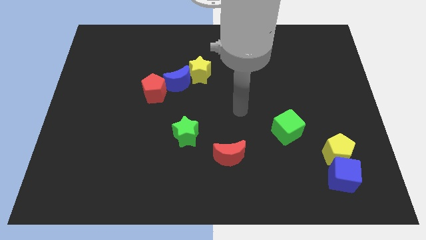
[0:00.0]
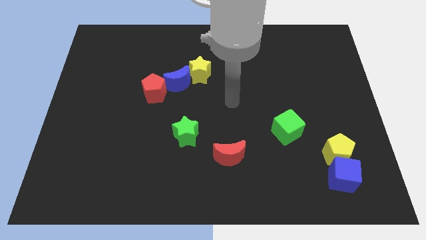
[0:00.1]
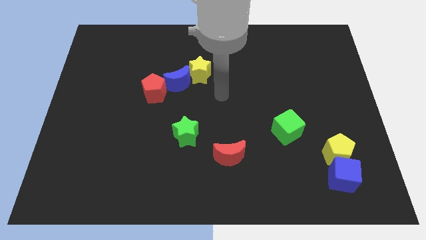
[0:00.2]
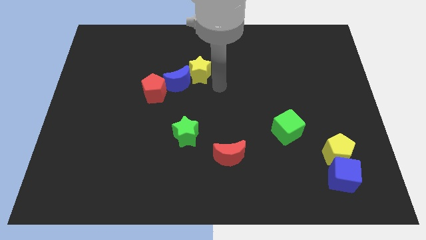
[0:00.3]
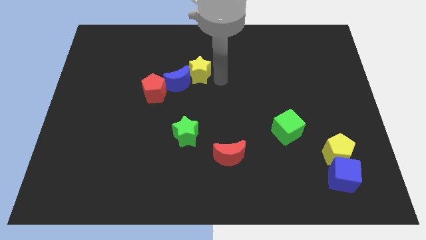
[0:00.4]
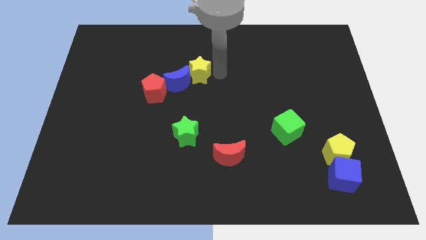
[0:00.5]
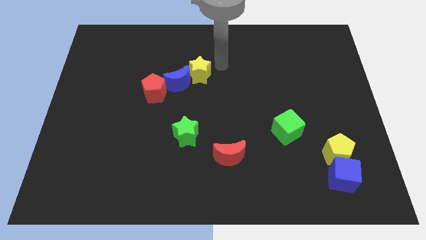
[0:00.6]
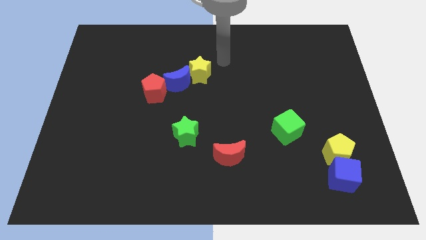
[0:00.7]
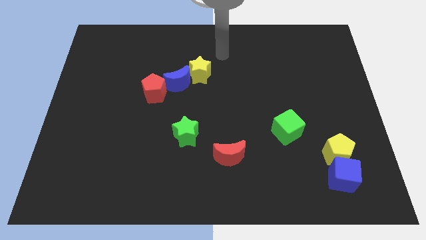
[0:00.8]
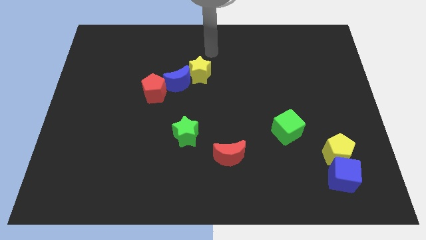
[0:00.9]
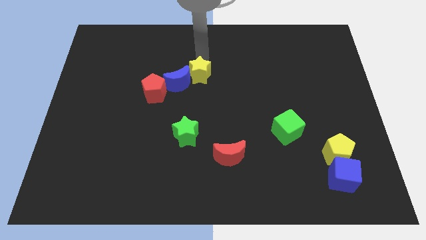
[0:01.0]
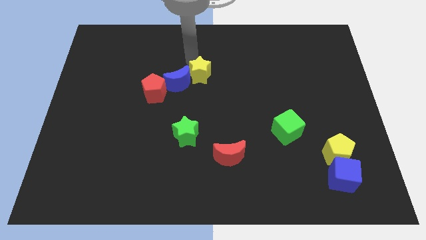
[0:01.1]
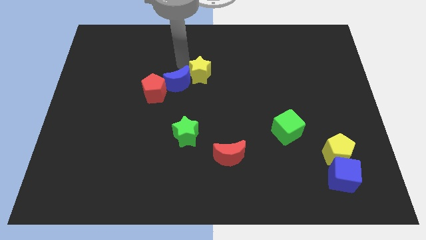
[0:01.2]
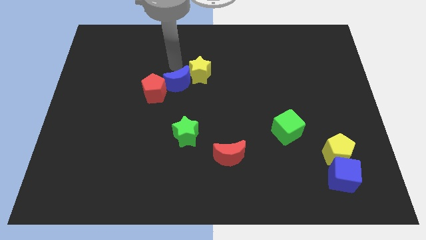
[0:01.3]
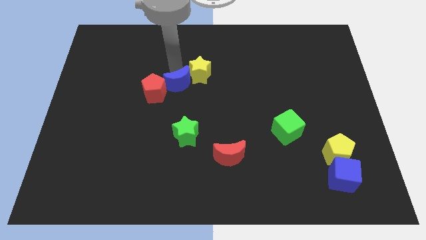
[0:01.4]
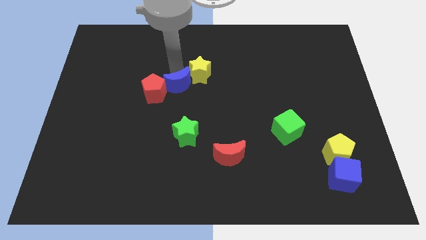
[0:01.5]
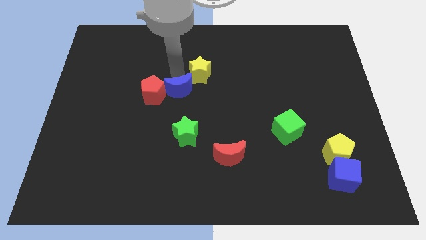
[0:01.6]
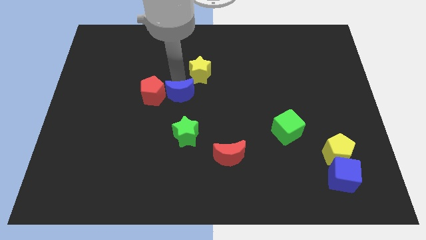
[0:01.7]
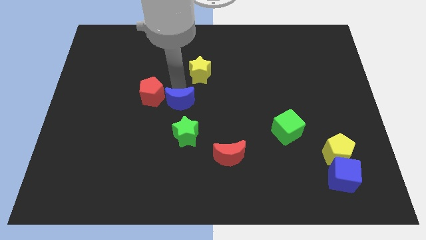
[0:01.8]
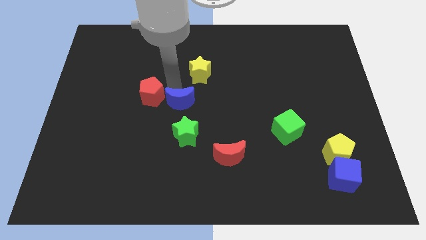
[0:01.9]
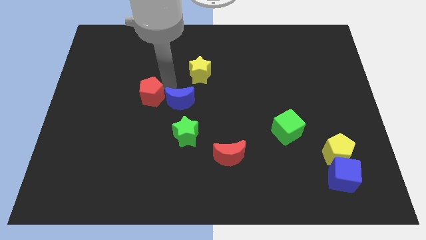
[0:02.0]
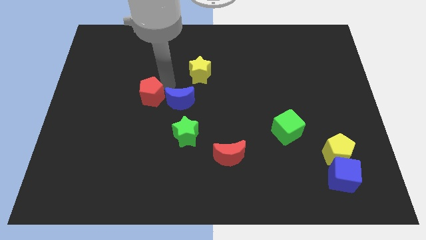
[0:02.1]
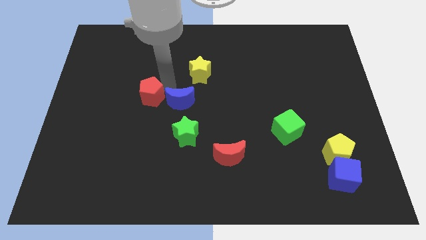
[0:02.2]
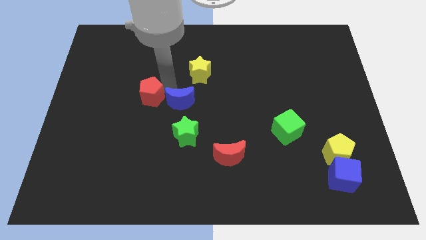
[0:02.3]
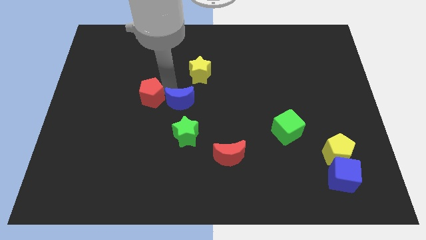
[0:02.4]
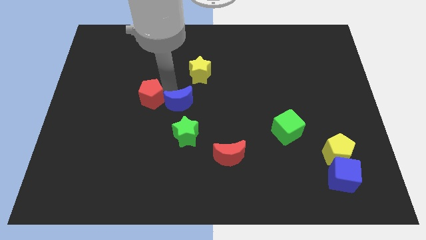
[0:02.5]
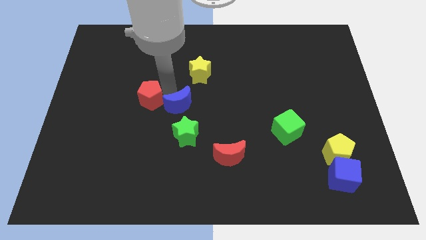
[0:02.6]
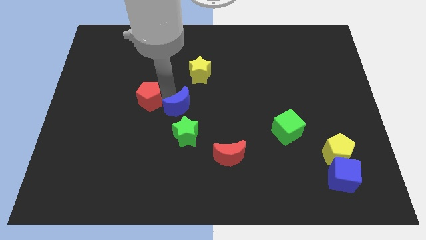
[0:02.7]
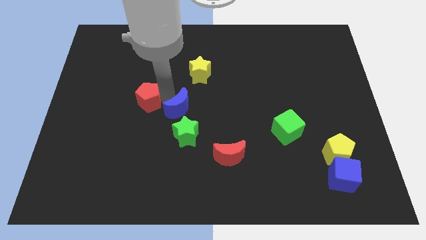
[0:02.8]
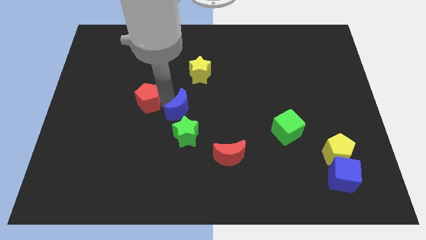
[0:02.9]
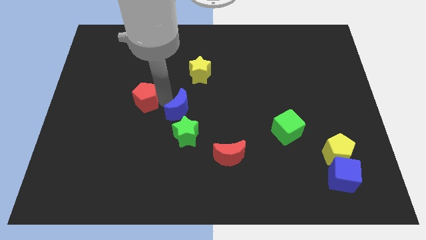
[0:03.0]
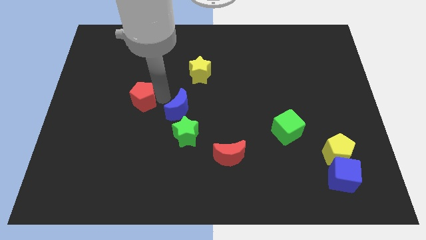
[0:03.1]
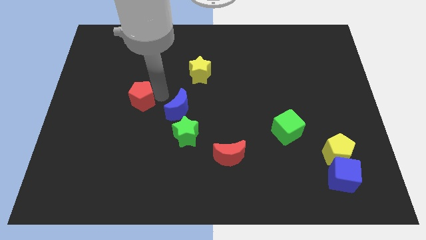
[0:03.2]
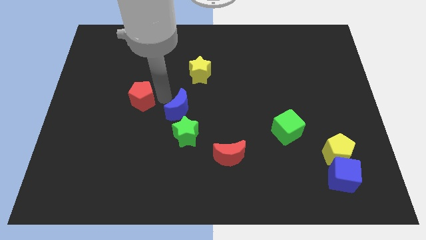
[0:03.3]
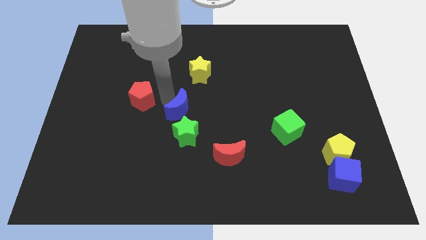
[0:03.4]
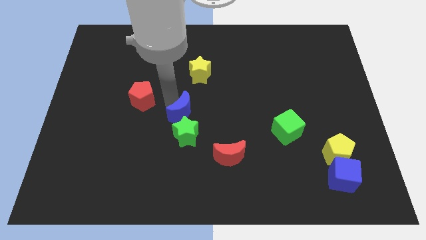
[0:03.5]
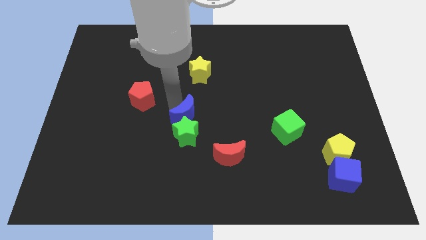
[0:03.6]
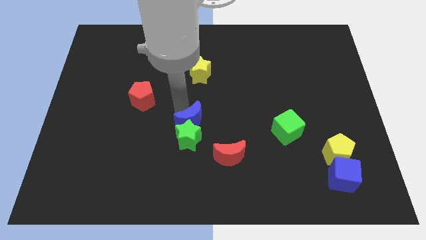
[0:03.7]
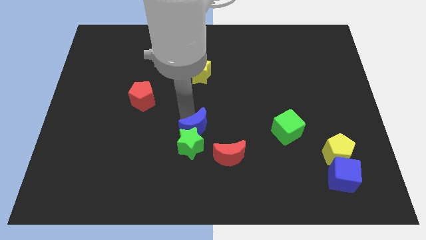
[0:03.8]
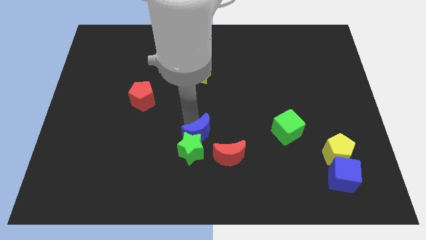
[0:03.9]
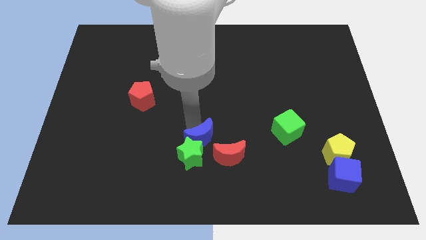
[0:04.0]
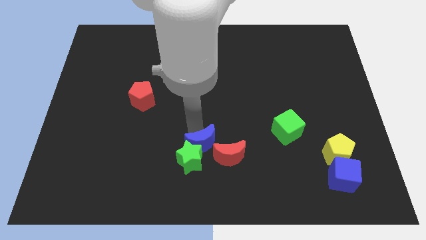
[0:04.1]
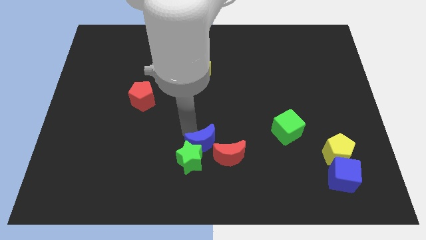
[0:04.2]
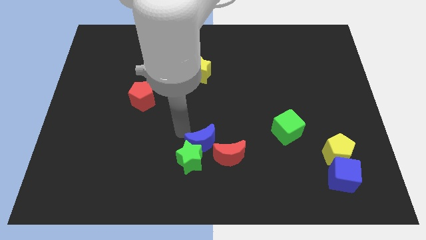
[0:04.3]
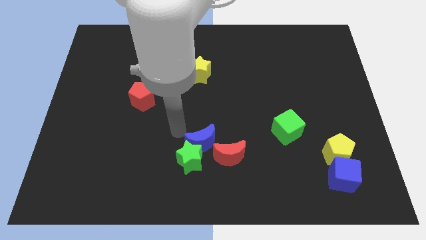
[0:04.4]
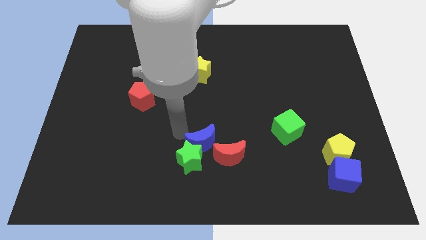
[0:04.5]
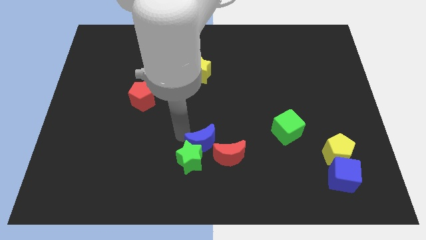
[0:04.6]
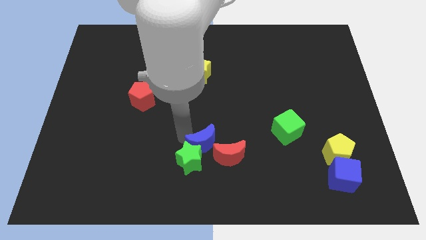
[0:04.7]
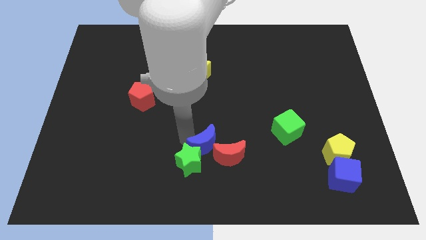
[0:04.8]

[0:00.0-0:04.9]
slide the blue moon to the red moon

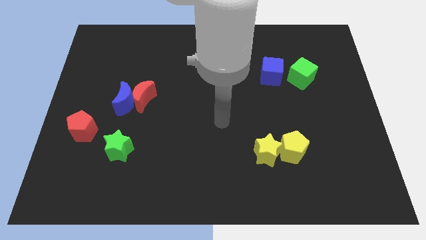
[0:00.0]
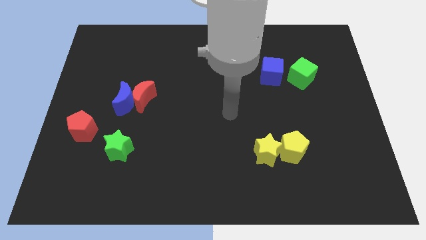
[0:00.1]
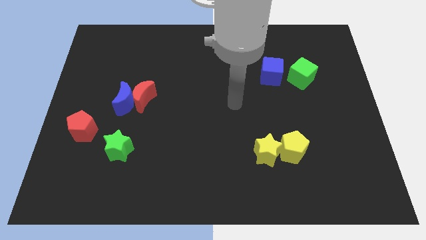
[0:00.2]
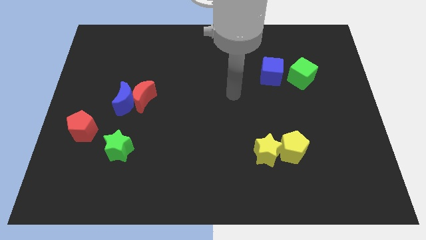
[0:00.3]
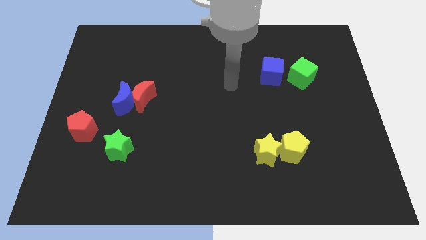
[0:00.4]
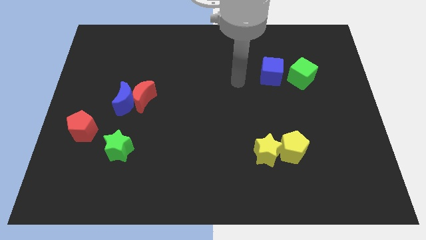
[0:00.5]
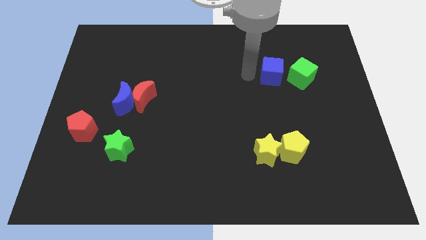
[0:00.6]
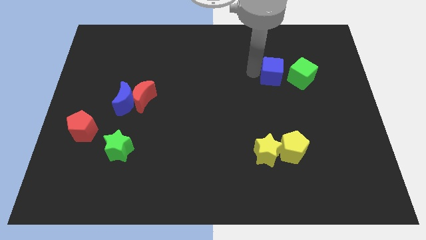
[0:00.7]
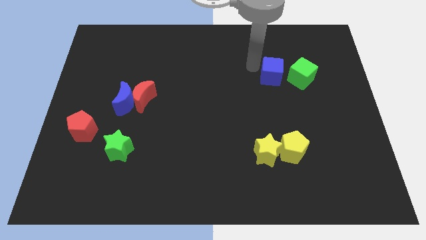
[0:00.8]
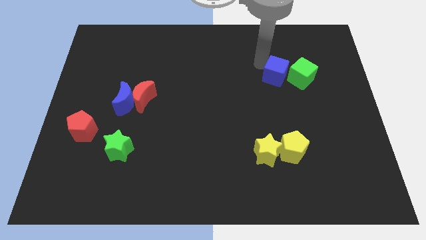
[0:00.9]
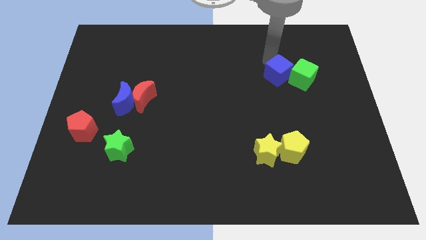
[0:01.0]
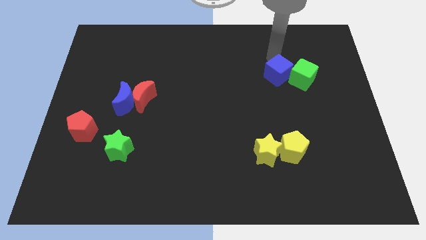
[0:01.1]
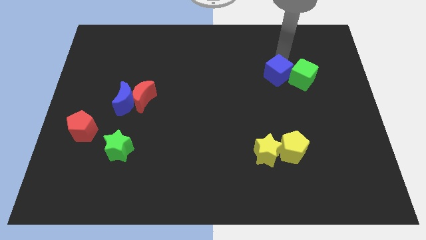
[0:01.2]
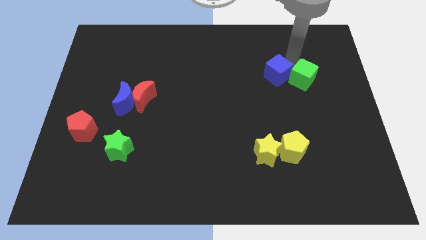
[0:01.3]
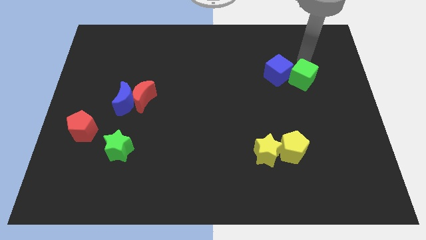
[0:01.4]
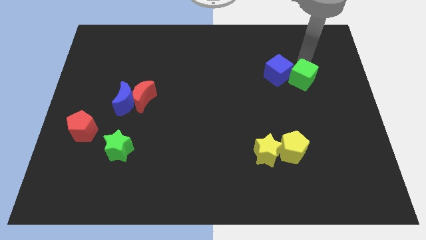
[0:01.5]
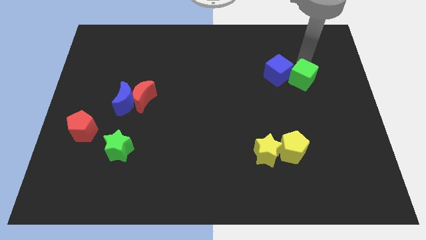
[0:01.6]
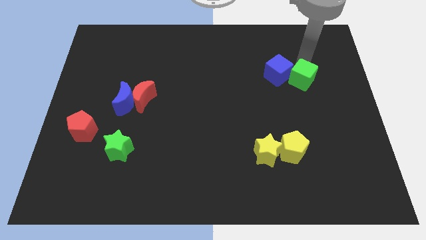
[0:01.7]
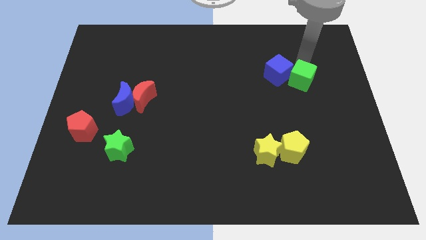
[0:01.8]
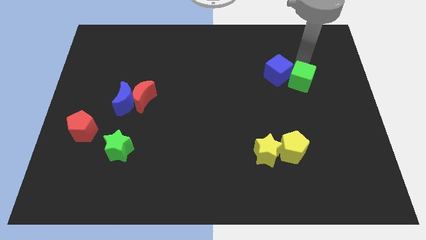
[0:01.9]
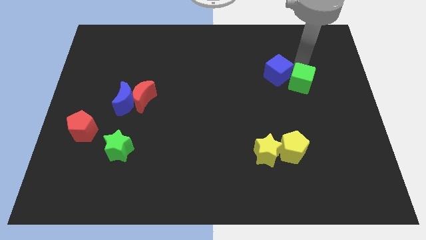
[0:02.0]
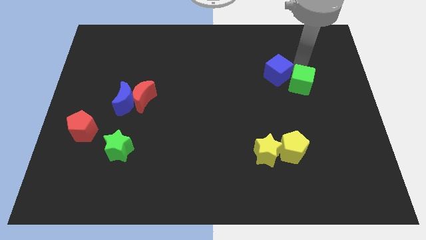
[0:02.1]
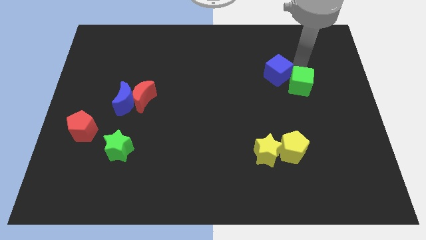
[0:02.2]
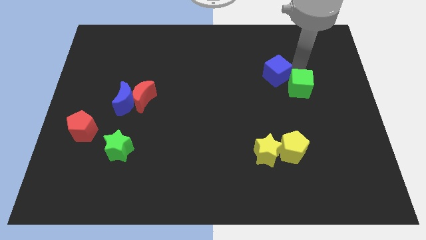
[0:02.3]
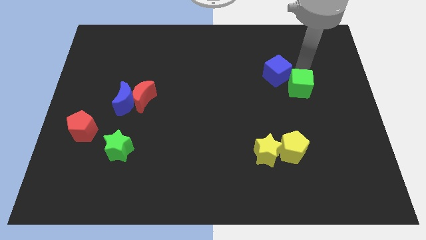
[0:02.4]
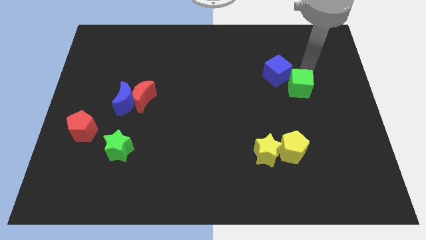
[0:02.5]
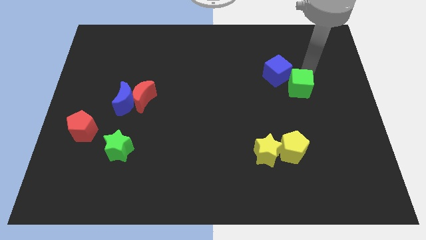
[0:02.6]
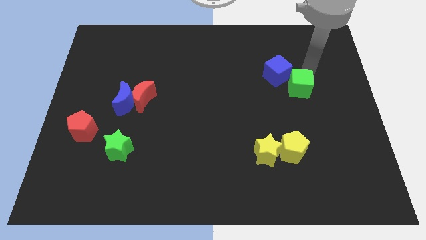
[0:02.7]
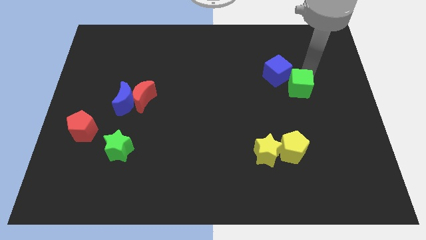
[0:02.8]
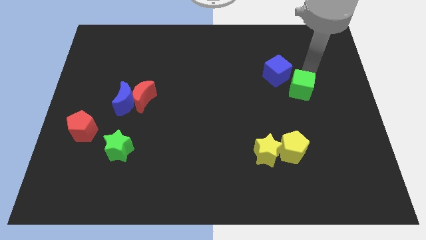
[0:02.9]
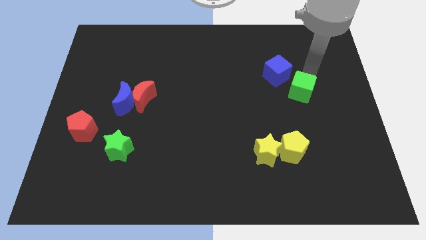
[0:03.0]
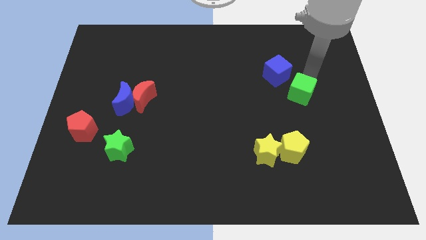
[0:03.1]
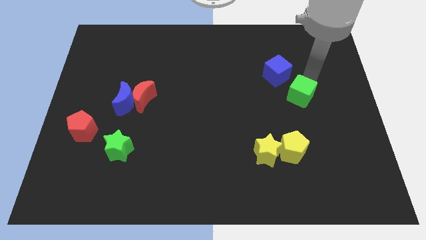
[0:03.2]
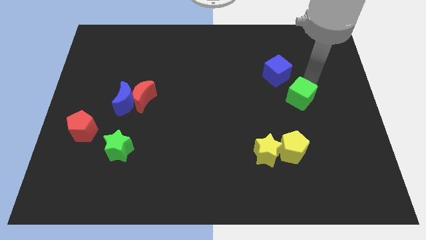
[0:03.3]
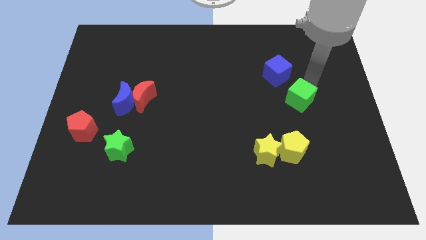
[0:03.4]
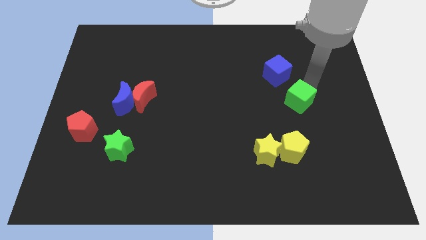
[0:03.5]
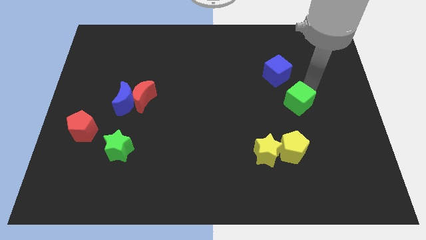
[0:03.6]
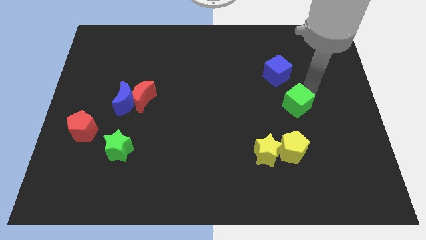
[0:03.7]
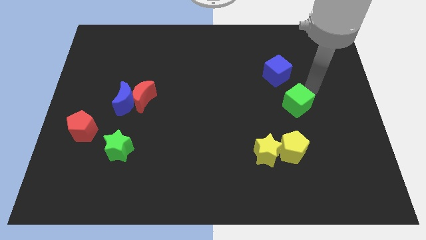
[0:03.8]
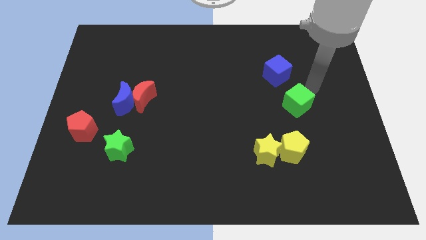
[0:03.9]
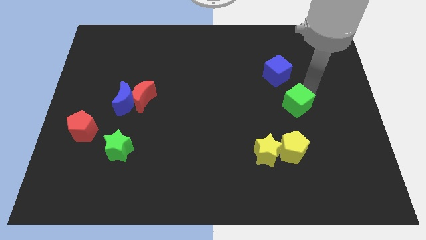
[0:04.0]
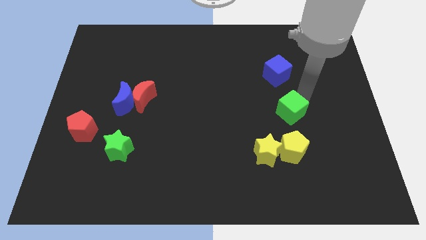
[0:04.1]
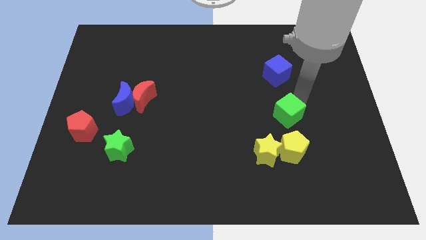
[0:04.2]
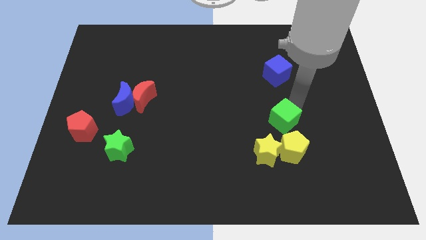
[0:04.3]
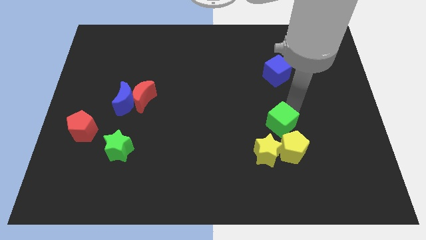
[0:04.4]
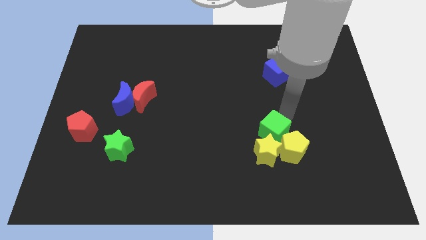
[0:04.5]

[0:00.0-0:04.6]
move the green cube close to the yellow star
